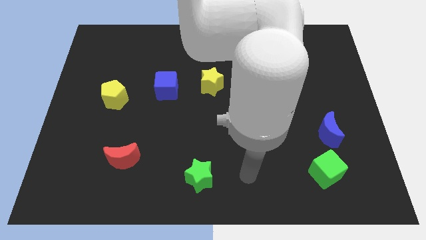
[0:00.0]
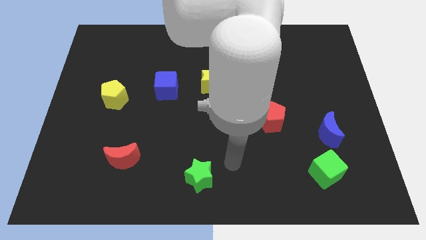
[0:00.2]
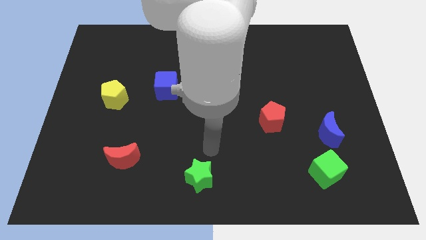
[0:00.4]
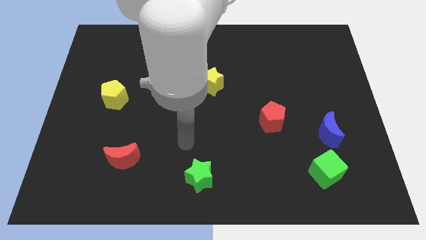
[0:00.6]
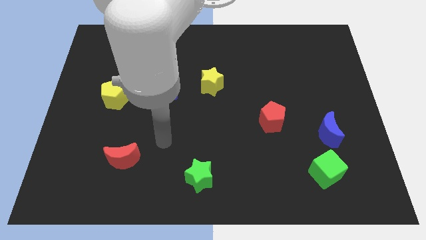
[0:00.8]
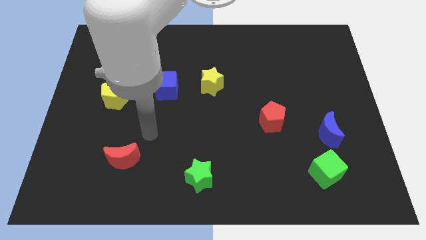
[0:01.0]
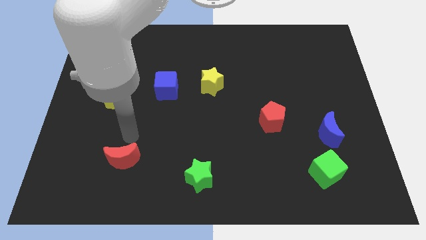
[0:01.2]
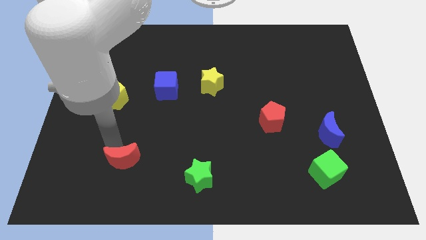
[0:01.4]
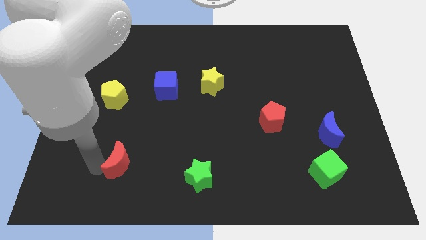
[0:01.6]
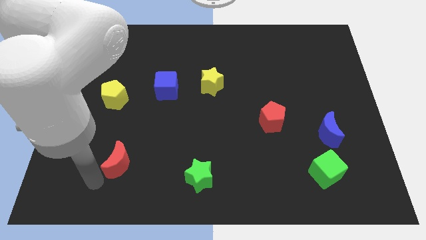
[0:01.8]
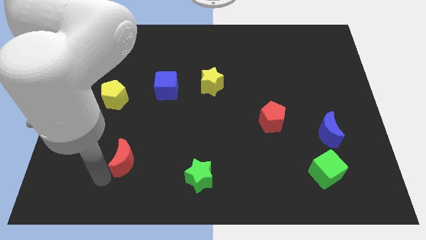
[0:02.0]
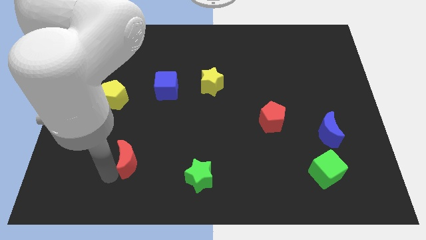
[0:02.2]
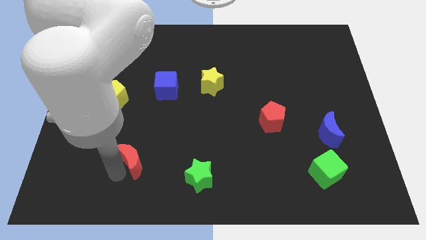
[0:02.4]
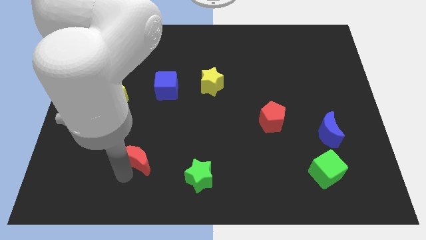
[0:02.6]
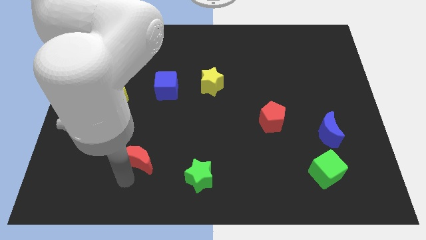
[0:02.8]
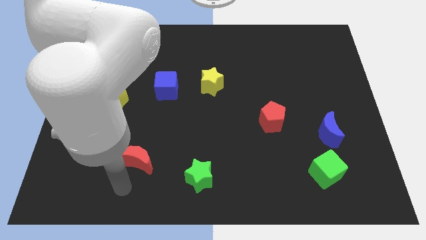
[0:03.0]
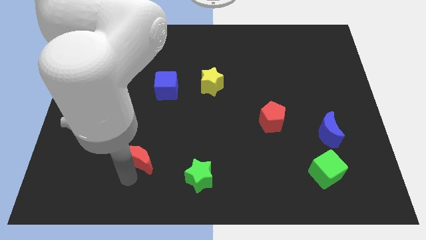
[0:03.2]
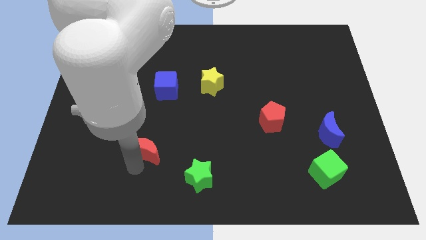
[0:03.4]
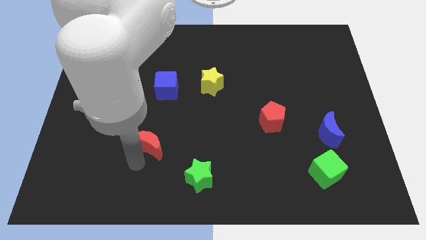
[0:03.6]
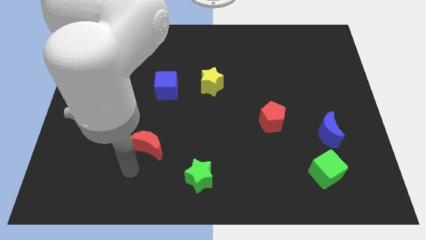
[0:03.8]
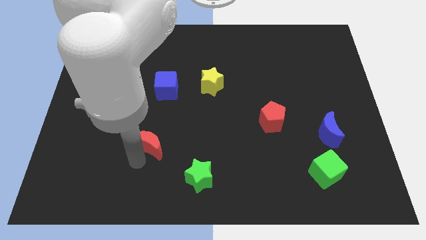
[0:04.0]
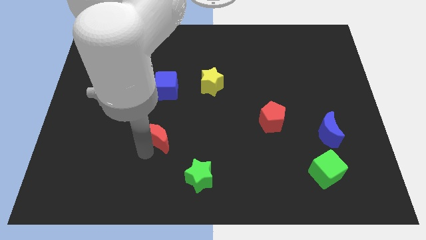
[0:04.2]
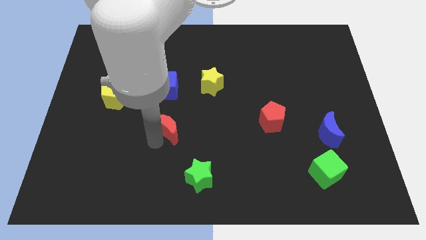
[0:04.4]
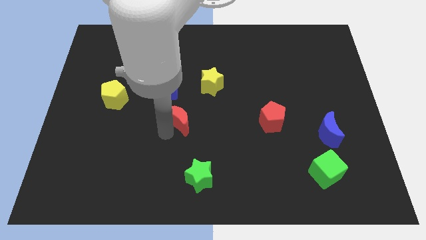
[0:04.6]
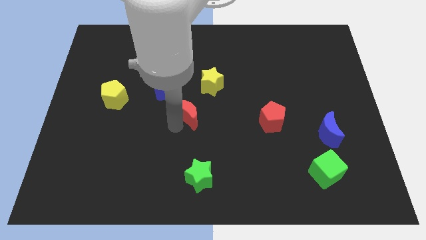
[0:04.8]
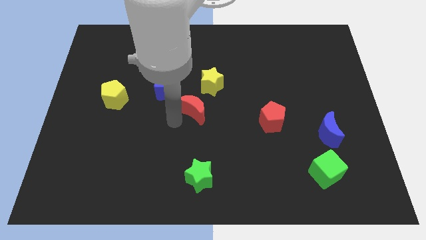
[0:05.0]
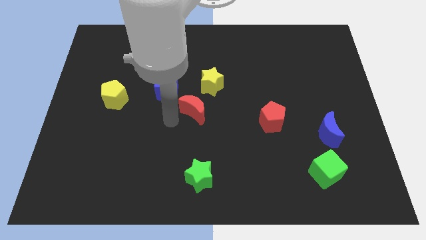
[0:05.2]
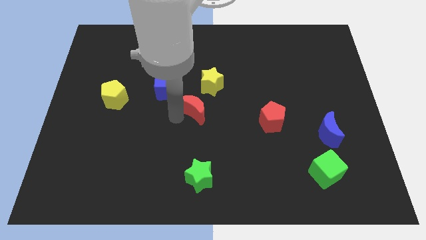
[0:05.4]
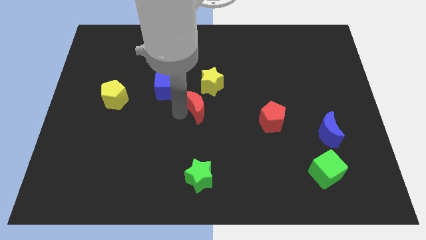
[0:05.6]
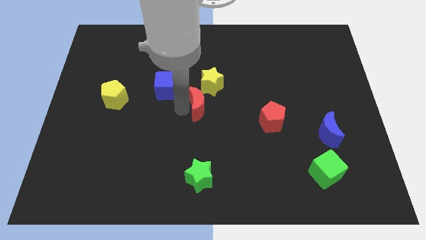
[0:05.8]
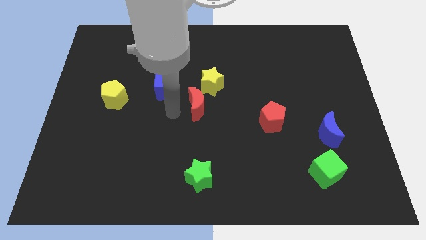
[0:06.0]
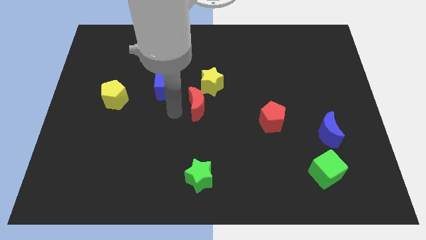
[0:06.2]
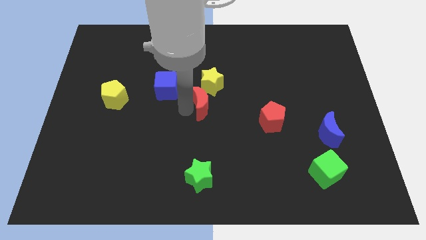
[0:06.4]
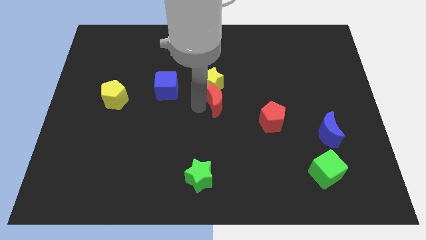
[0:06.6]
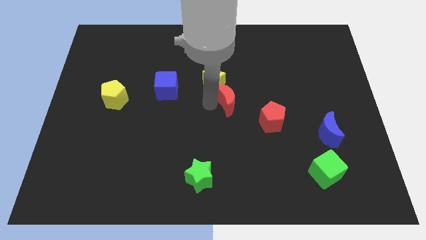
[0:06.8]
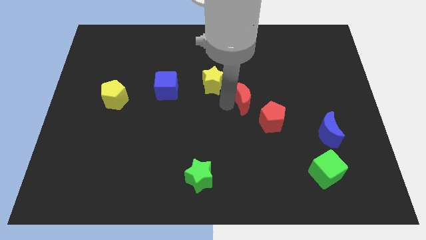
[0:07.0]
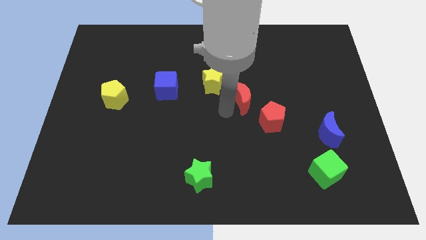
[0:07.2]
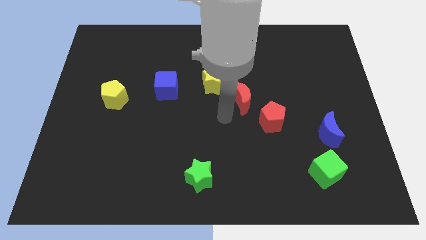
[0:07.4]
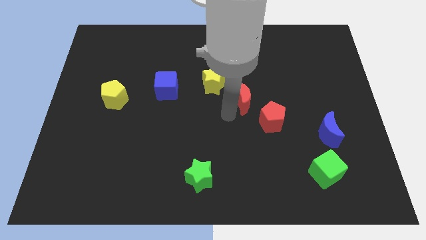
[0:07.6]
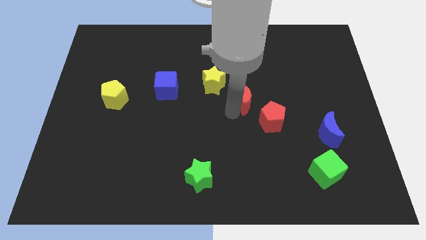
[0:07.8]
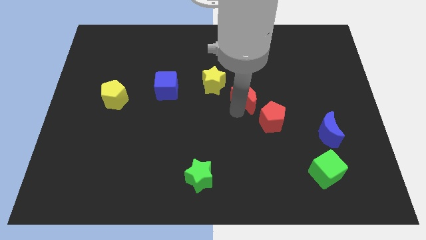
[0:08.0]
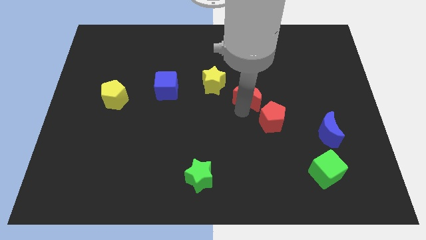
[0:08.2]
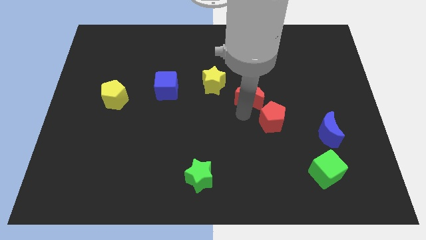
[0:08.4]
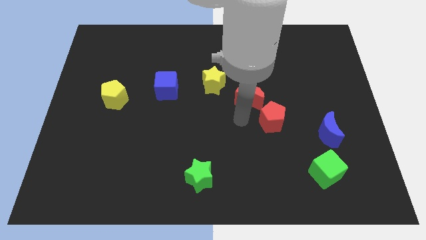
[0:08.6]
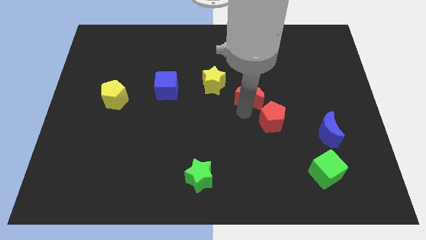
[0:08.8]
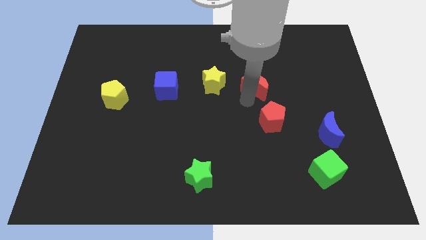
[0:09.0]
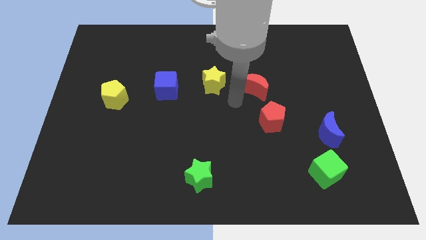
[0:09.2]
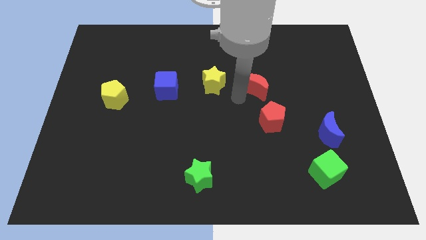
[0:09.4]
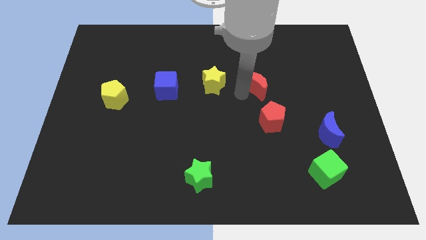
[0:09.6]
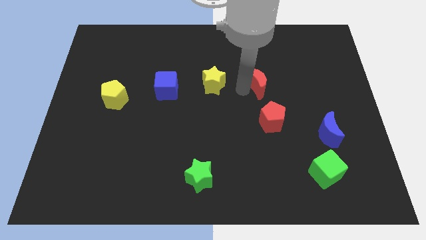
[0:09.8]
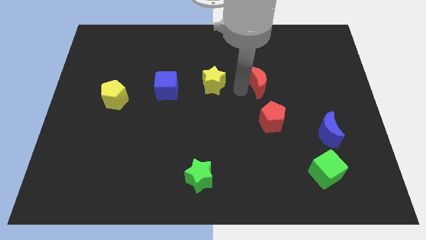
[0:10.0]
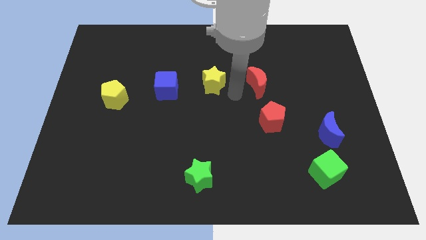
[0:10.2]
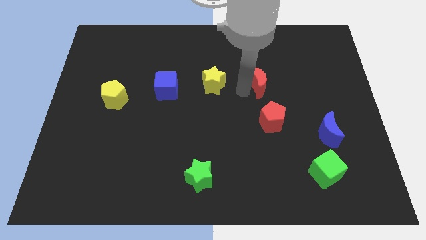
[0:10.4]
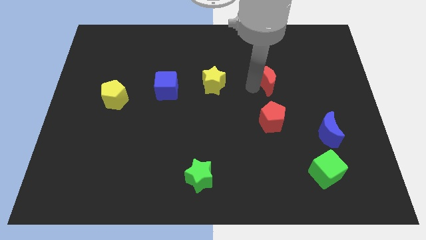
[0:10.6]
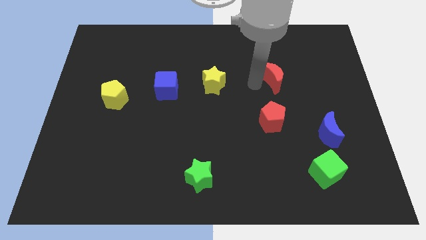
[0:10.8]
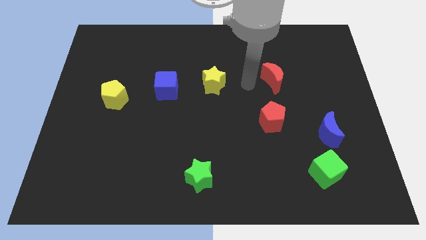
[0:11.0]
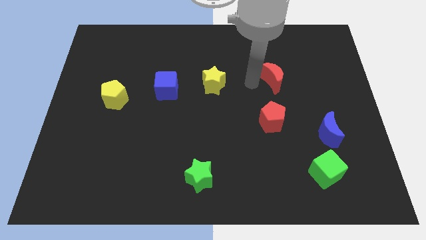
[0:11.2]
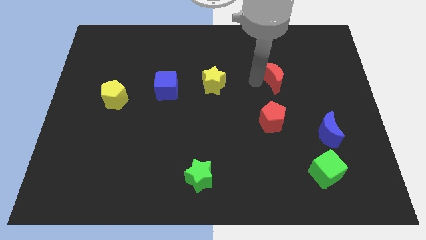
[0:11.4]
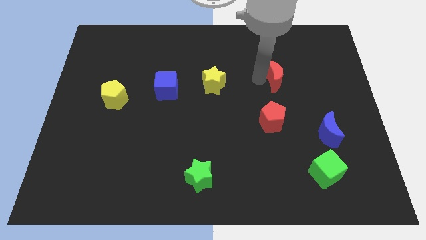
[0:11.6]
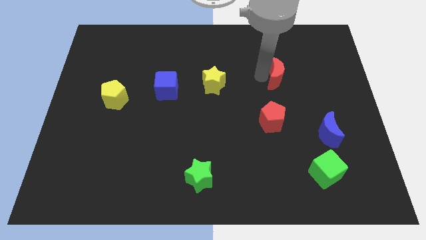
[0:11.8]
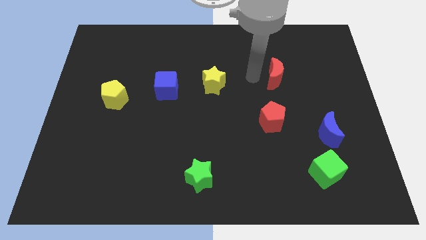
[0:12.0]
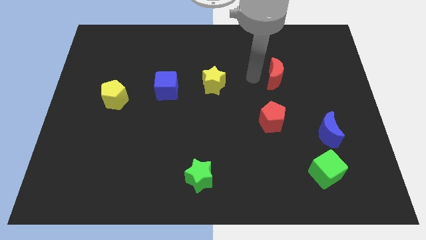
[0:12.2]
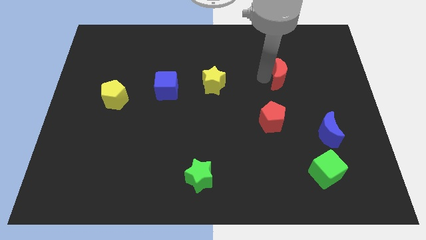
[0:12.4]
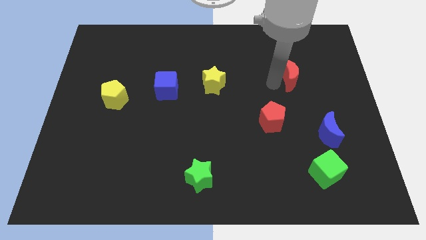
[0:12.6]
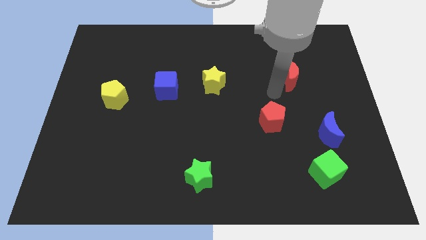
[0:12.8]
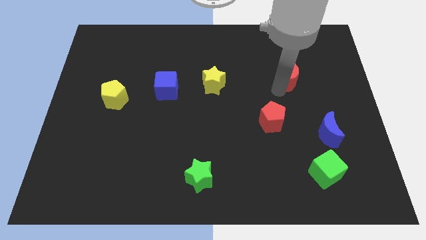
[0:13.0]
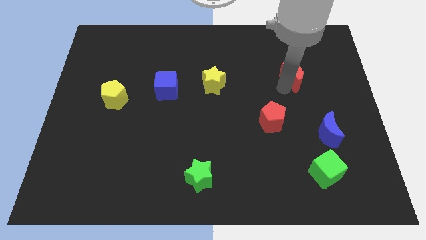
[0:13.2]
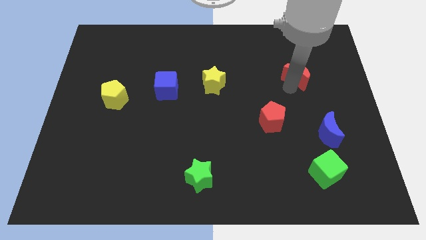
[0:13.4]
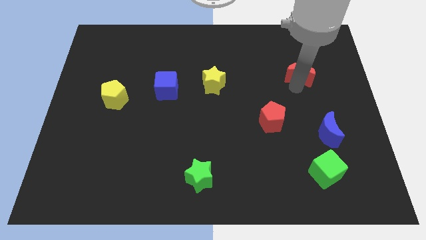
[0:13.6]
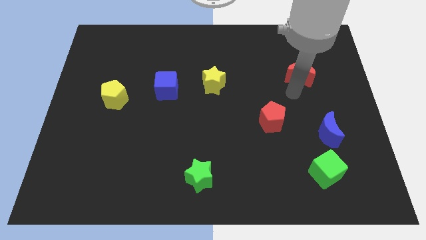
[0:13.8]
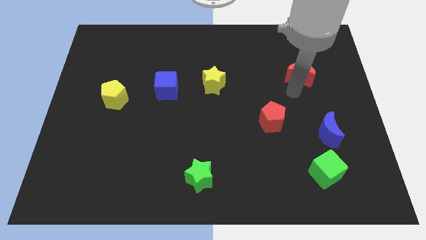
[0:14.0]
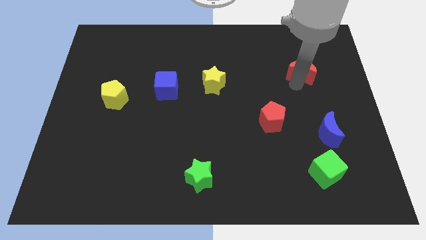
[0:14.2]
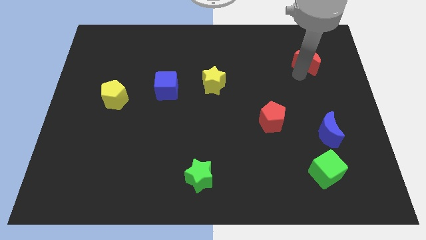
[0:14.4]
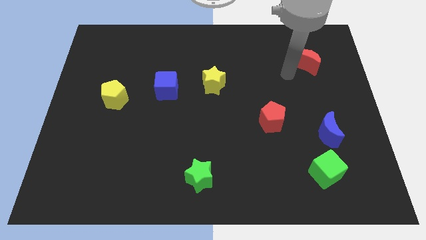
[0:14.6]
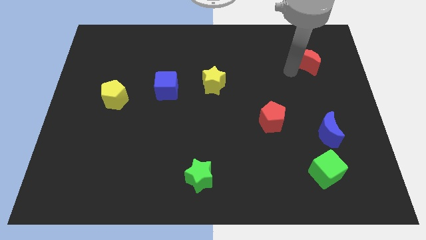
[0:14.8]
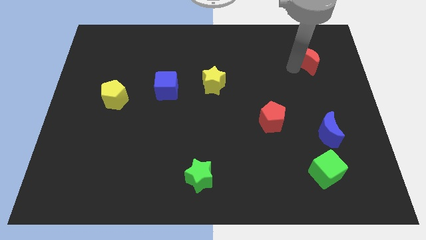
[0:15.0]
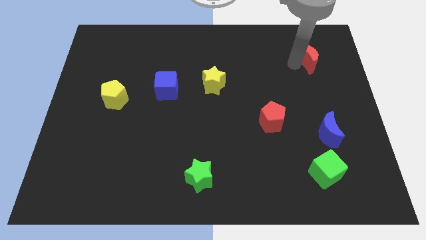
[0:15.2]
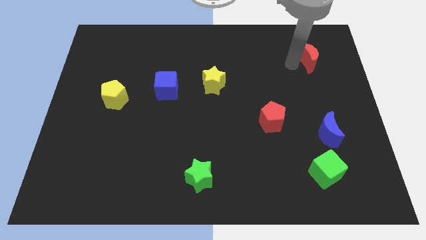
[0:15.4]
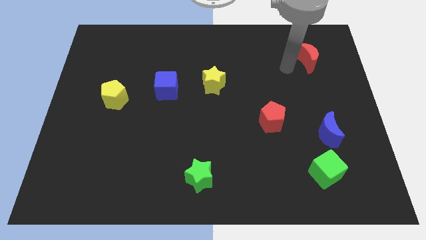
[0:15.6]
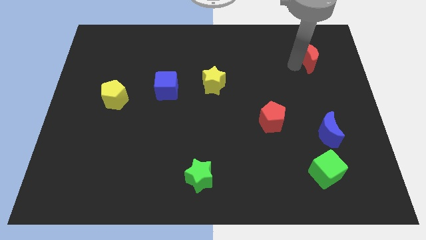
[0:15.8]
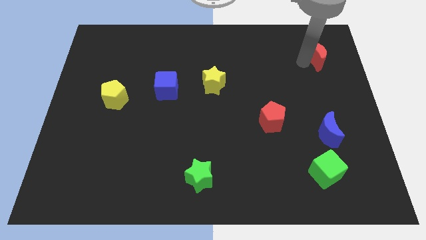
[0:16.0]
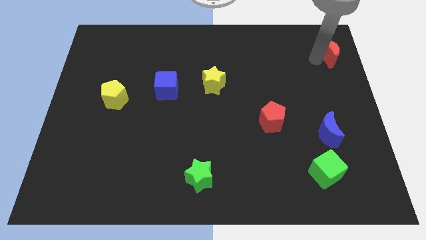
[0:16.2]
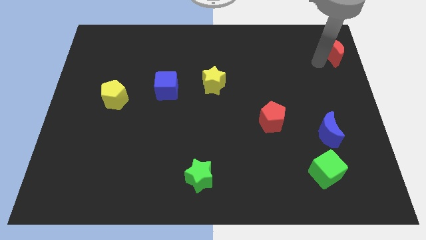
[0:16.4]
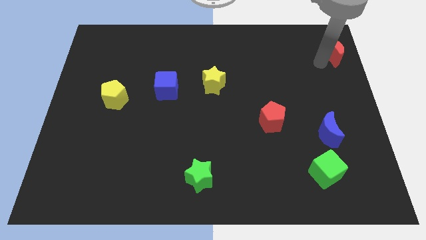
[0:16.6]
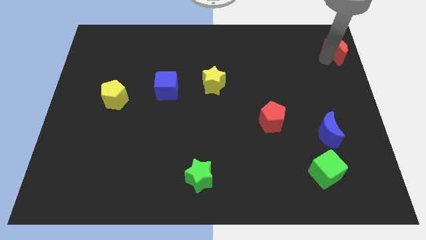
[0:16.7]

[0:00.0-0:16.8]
move the red moon to the upper right corner
